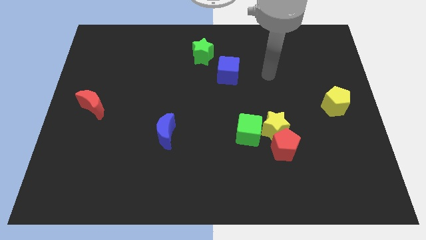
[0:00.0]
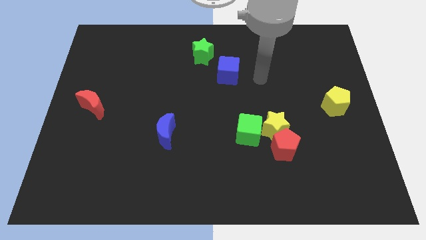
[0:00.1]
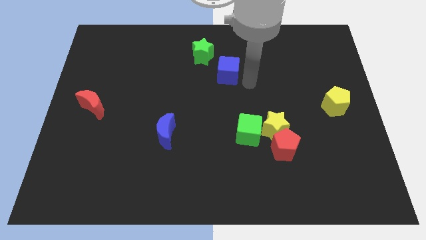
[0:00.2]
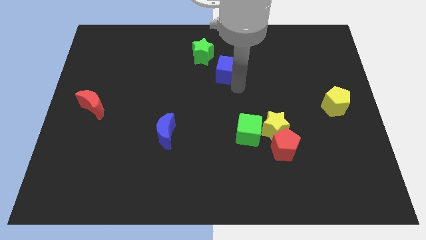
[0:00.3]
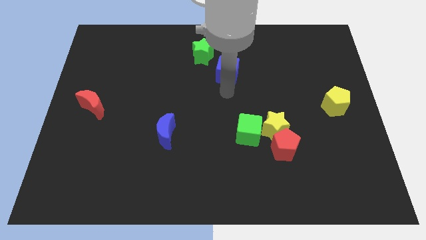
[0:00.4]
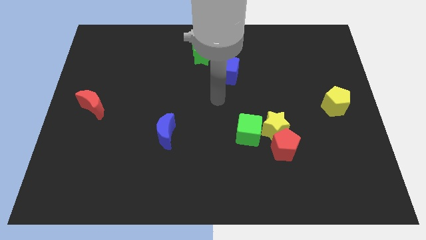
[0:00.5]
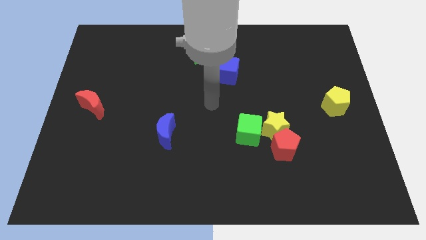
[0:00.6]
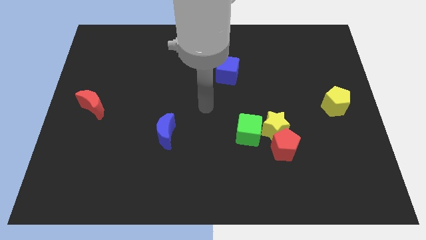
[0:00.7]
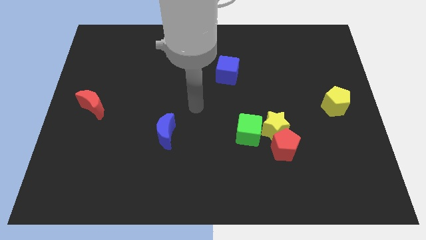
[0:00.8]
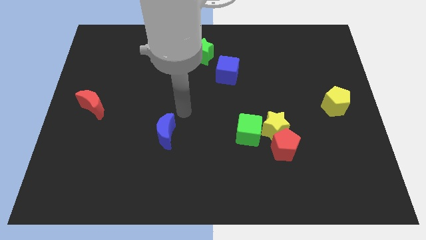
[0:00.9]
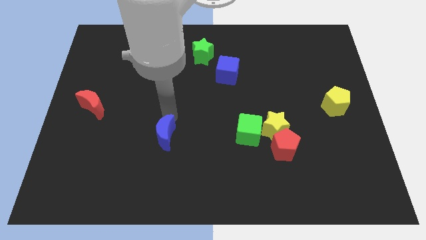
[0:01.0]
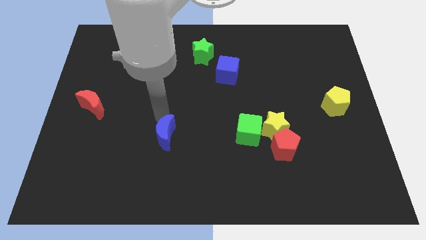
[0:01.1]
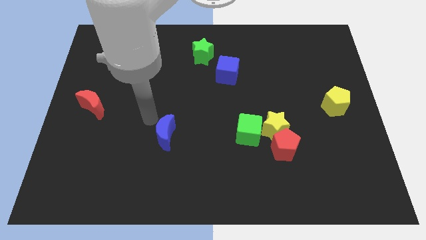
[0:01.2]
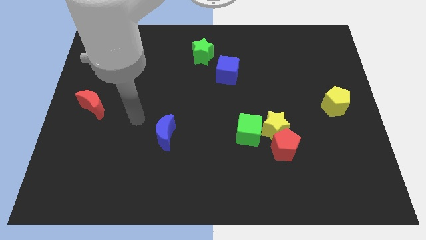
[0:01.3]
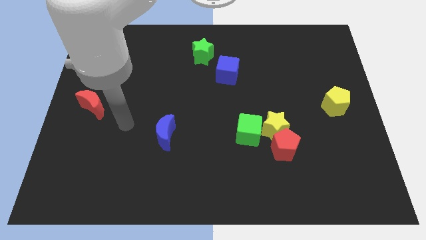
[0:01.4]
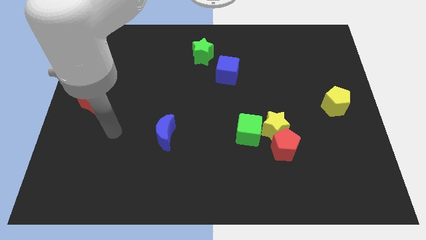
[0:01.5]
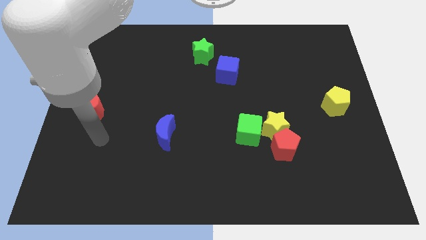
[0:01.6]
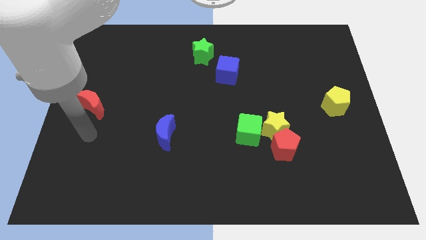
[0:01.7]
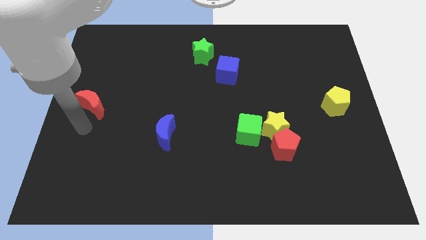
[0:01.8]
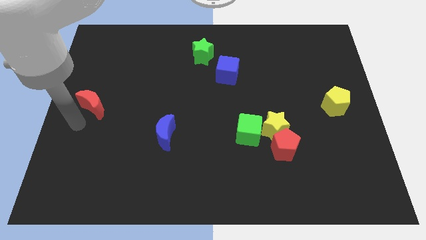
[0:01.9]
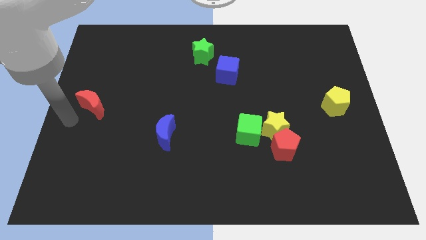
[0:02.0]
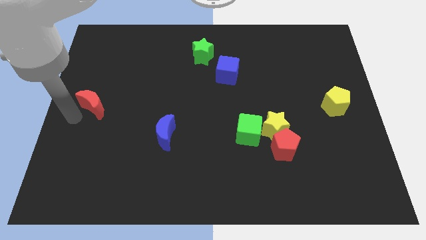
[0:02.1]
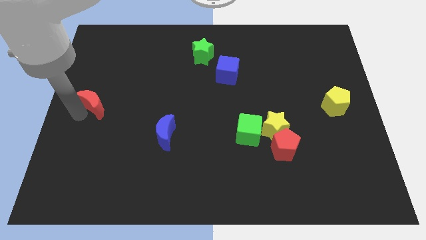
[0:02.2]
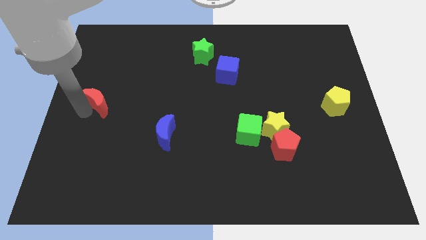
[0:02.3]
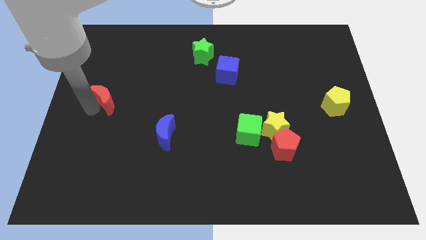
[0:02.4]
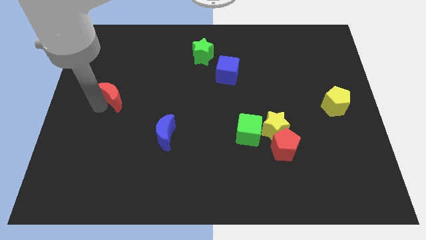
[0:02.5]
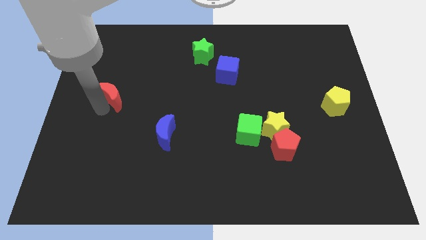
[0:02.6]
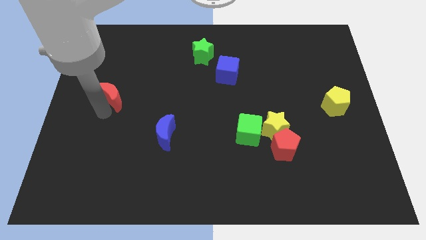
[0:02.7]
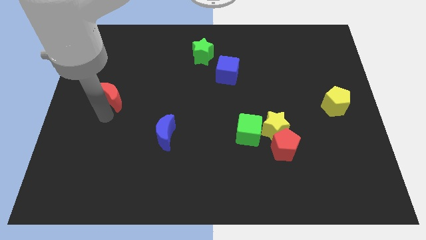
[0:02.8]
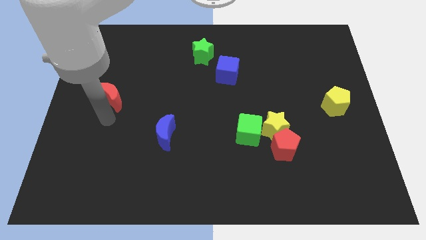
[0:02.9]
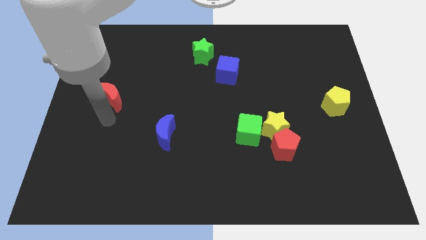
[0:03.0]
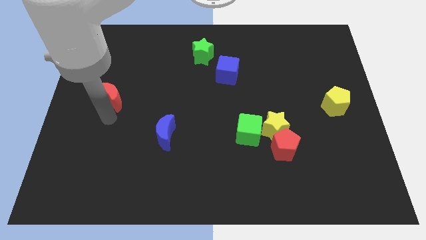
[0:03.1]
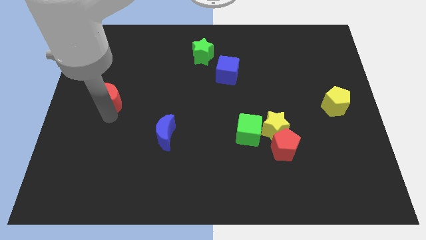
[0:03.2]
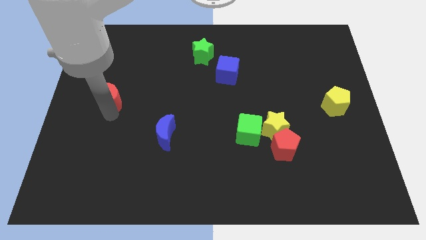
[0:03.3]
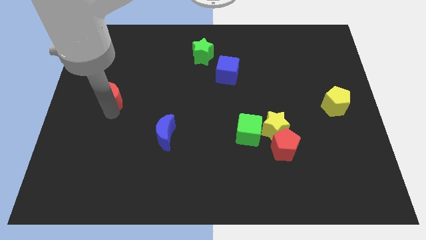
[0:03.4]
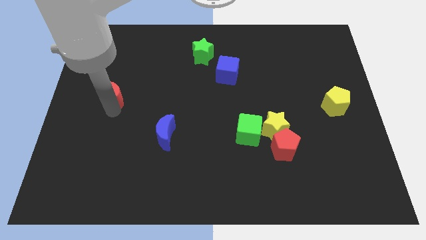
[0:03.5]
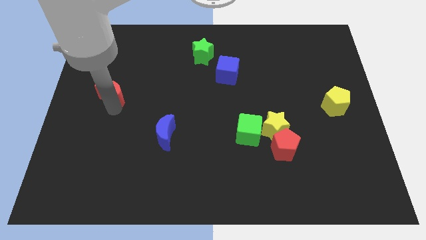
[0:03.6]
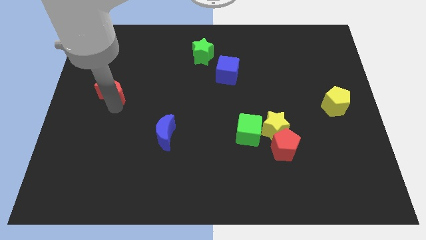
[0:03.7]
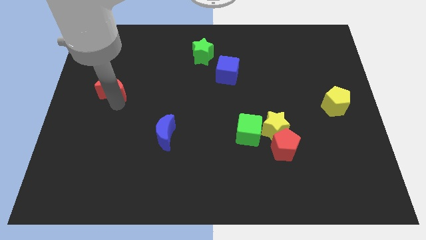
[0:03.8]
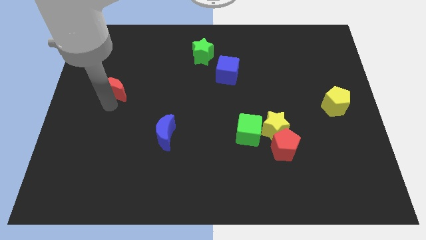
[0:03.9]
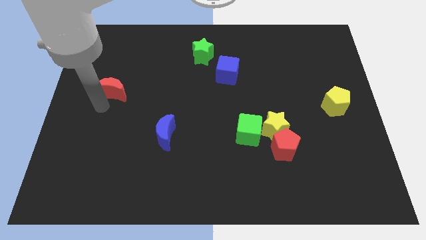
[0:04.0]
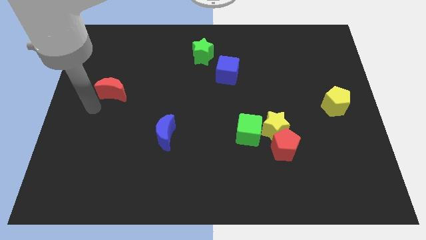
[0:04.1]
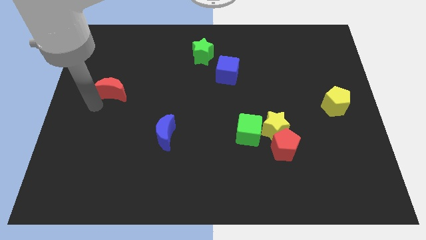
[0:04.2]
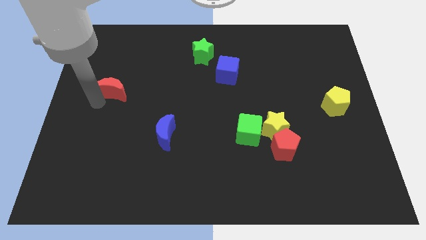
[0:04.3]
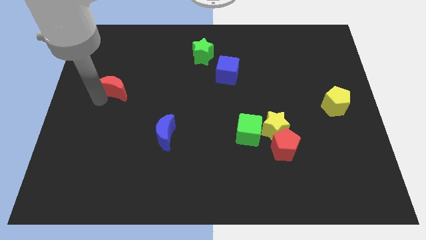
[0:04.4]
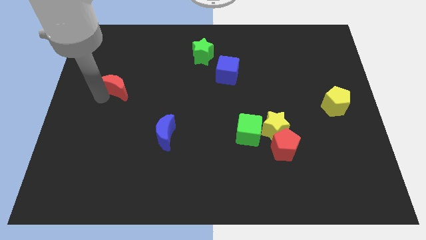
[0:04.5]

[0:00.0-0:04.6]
push the red moon up and to the right a bit

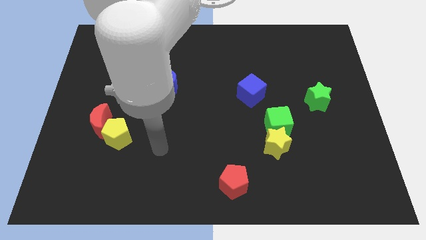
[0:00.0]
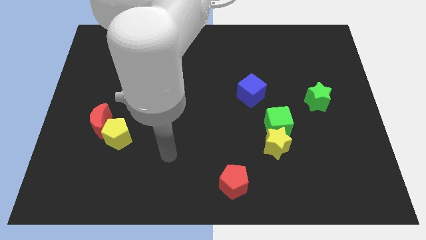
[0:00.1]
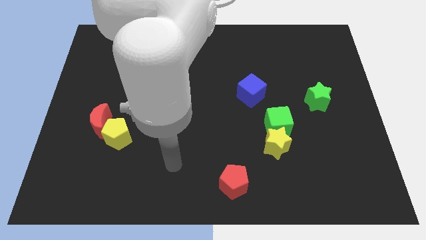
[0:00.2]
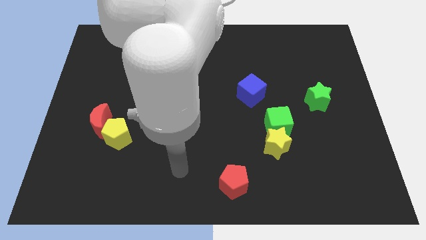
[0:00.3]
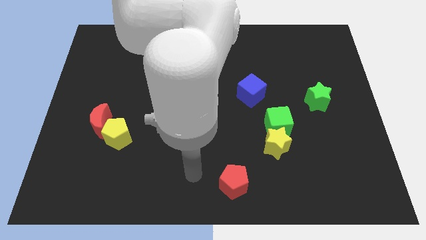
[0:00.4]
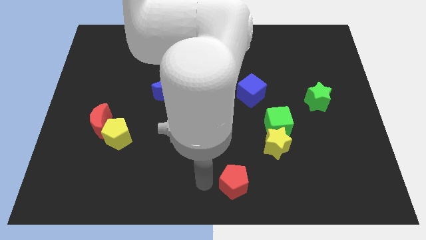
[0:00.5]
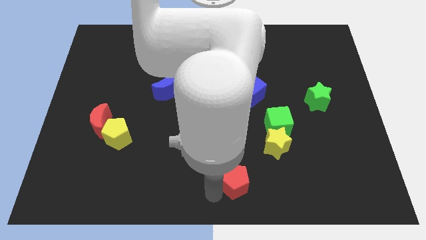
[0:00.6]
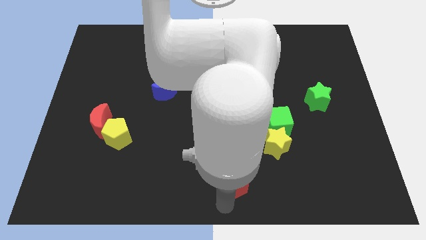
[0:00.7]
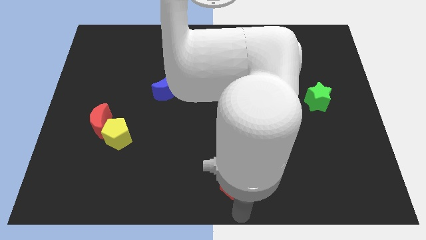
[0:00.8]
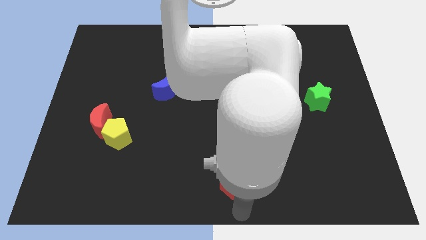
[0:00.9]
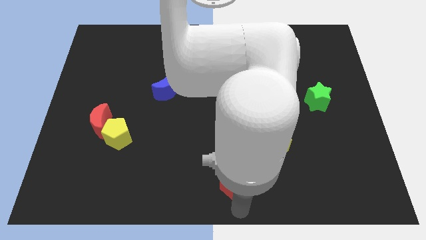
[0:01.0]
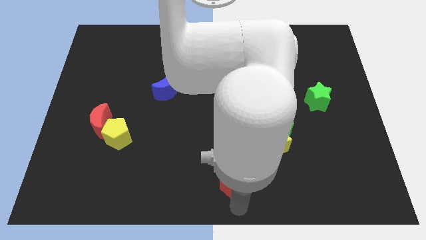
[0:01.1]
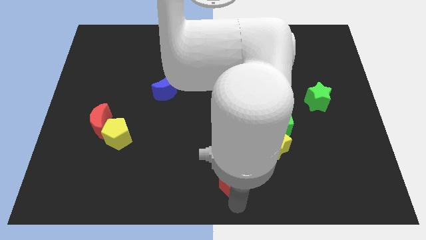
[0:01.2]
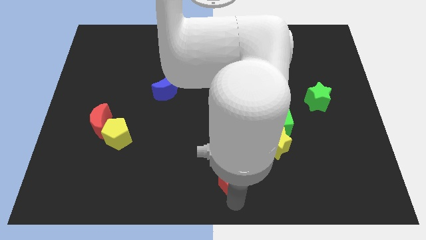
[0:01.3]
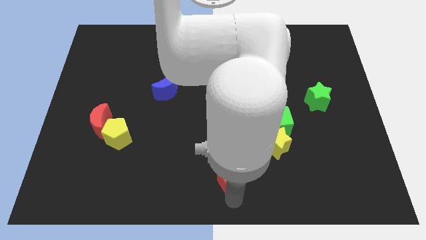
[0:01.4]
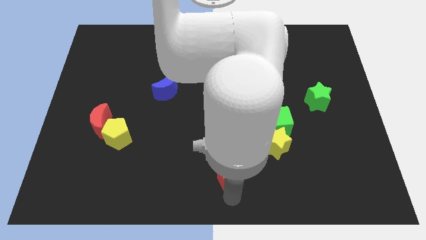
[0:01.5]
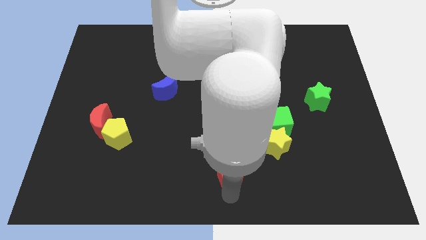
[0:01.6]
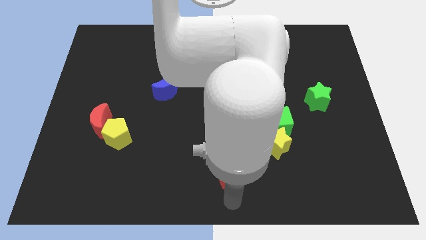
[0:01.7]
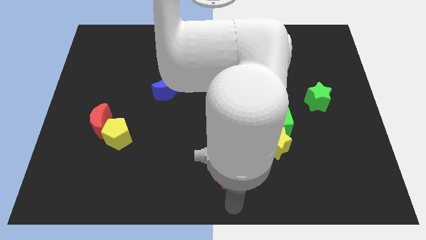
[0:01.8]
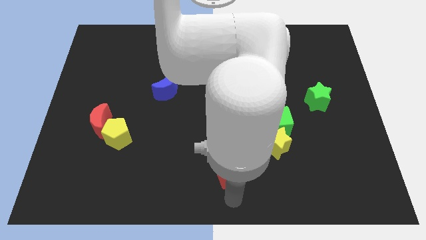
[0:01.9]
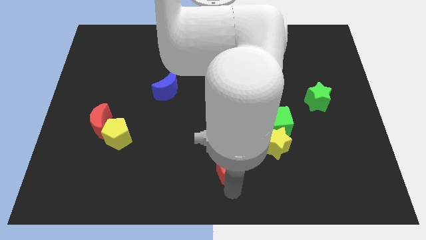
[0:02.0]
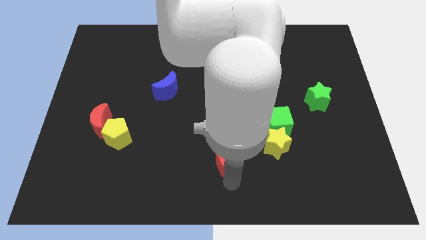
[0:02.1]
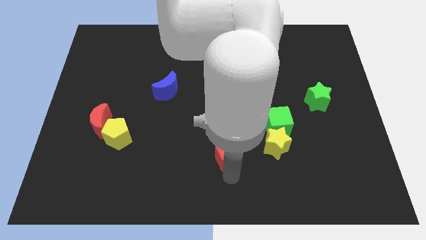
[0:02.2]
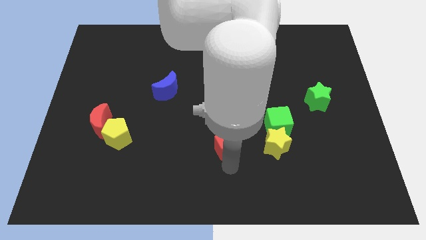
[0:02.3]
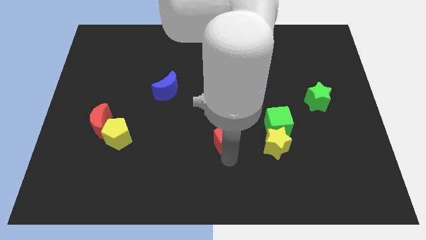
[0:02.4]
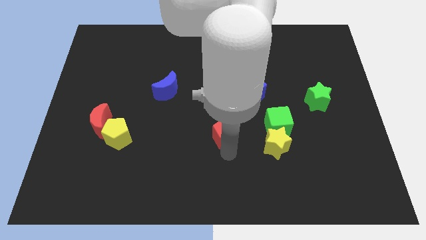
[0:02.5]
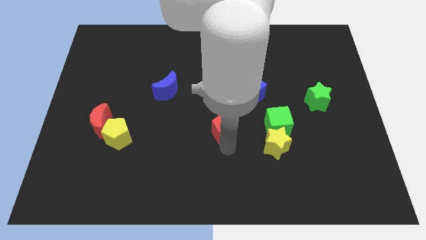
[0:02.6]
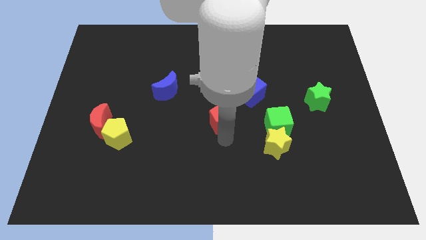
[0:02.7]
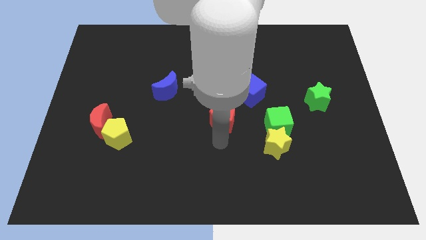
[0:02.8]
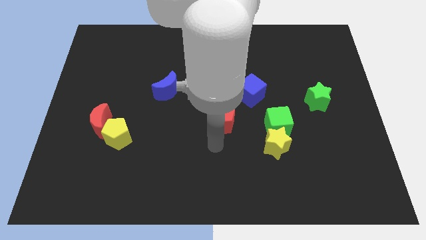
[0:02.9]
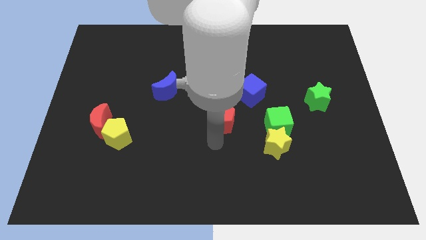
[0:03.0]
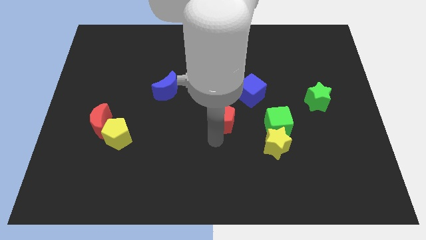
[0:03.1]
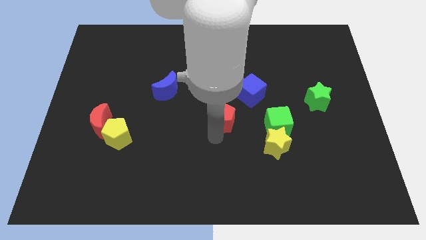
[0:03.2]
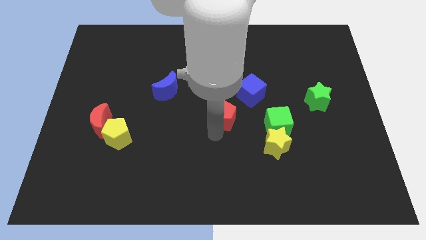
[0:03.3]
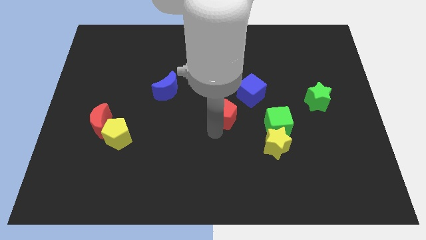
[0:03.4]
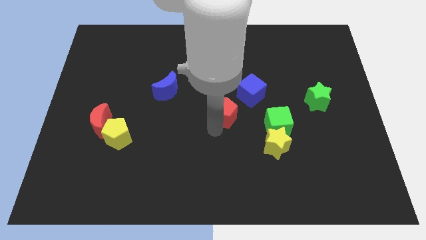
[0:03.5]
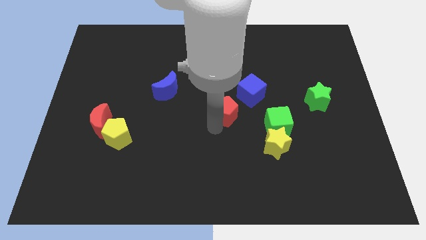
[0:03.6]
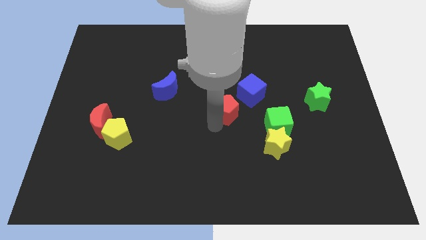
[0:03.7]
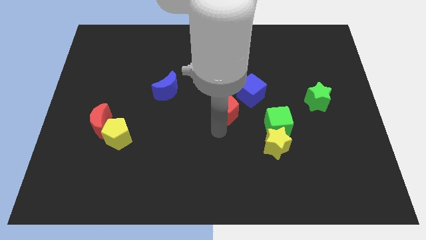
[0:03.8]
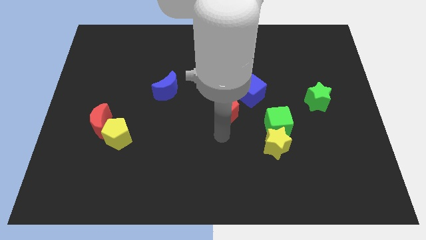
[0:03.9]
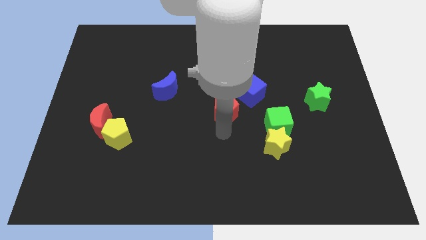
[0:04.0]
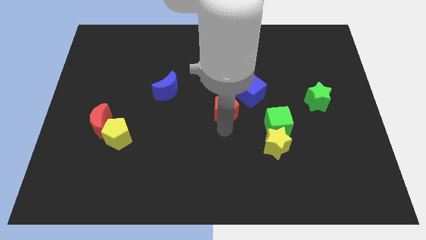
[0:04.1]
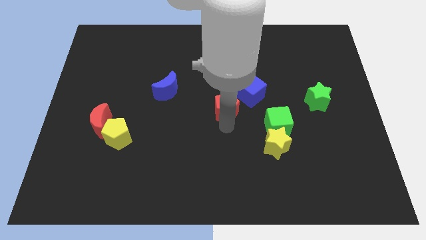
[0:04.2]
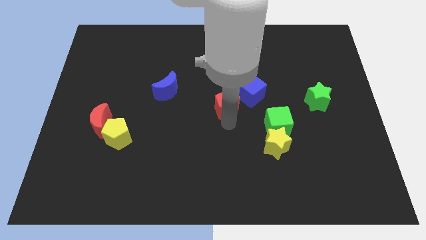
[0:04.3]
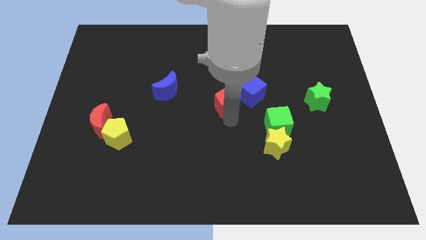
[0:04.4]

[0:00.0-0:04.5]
slide the red pentagon up
